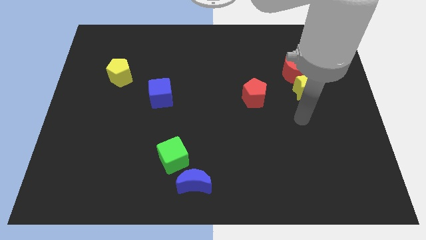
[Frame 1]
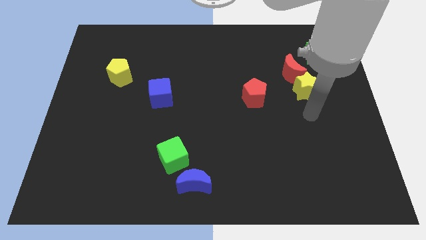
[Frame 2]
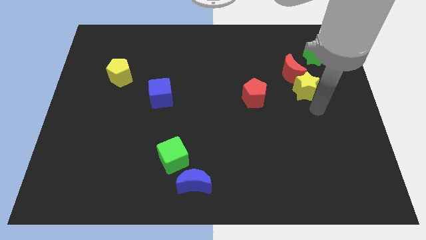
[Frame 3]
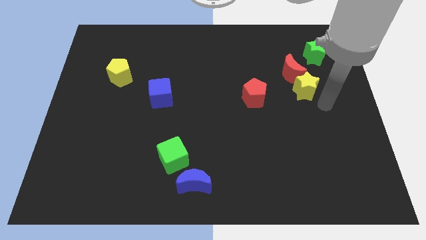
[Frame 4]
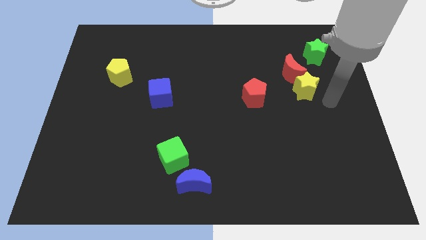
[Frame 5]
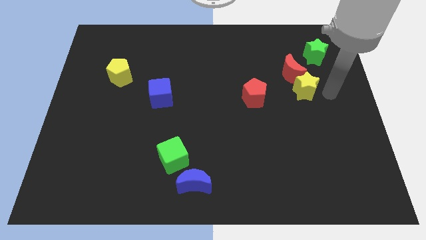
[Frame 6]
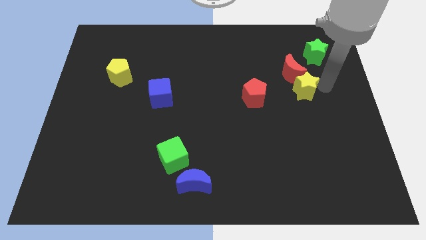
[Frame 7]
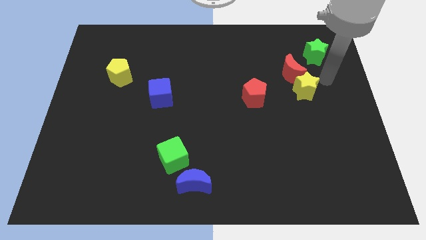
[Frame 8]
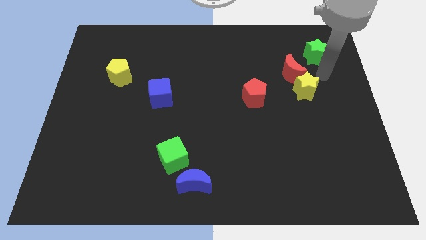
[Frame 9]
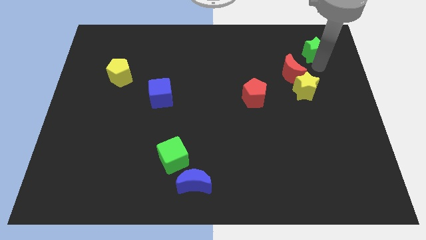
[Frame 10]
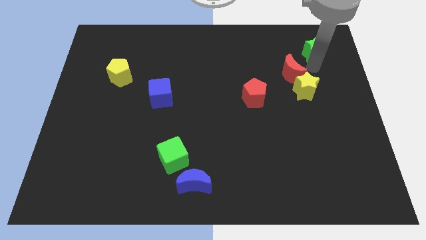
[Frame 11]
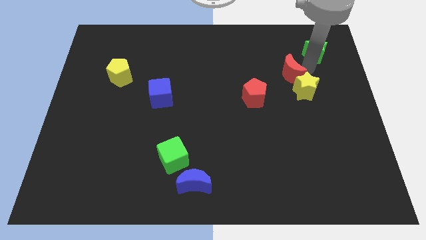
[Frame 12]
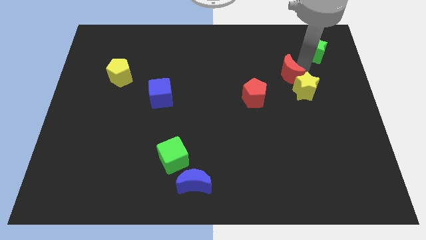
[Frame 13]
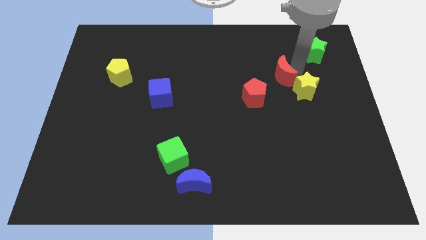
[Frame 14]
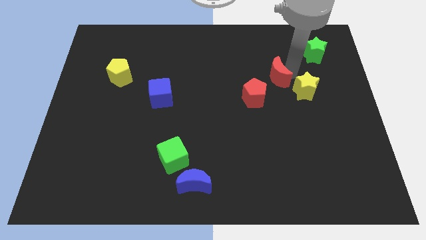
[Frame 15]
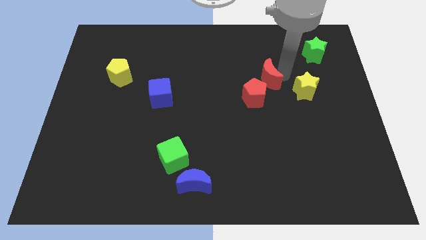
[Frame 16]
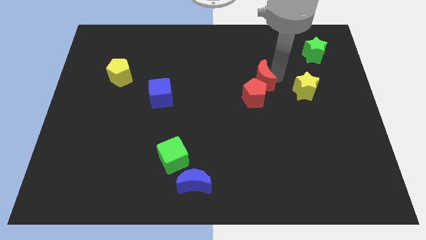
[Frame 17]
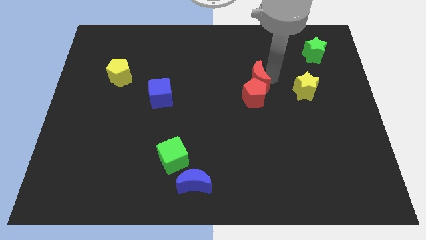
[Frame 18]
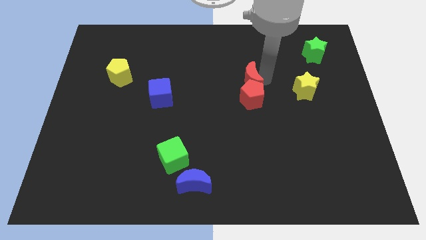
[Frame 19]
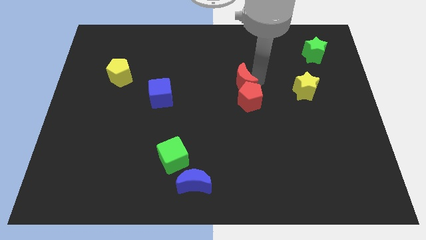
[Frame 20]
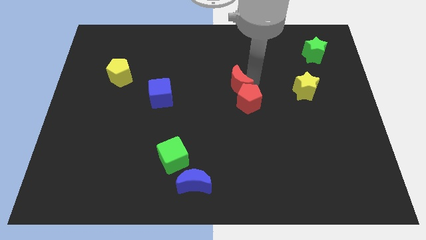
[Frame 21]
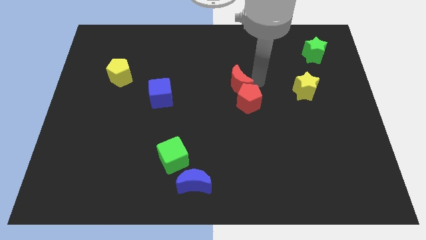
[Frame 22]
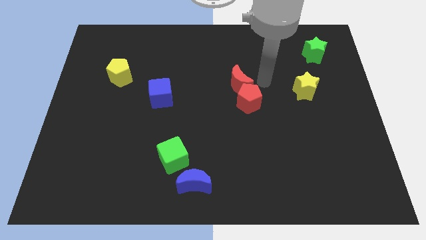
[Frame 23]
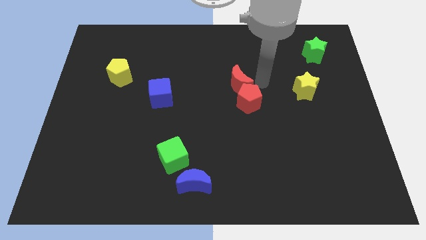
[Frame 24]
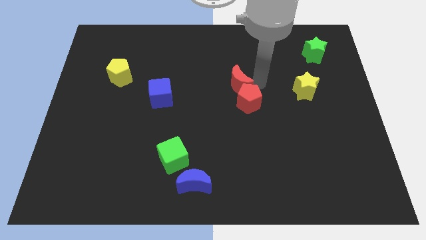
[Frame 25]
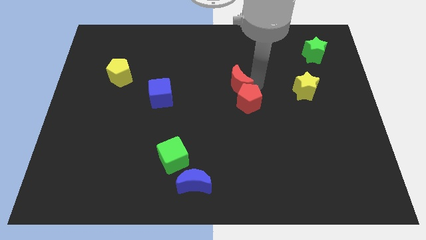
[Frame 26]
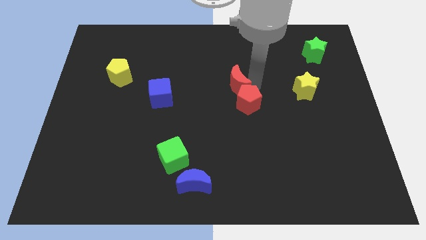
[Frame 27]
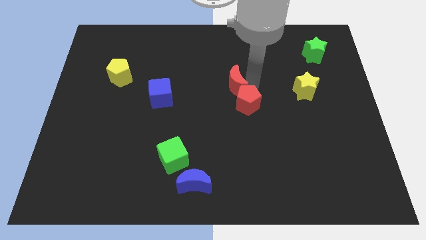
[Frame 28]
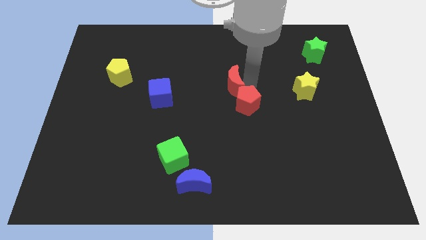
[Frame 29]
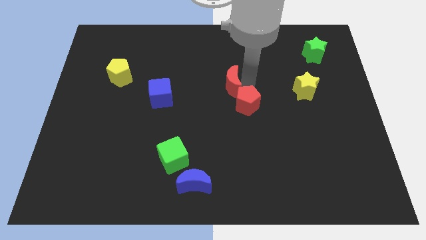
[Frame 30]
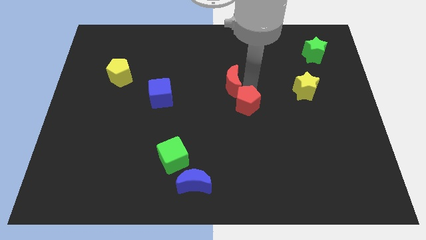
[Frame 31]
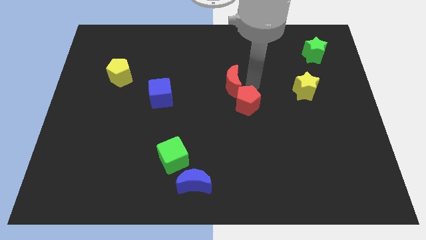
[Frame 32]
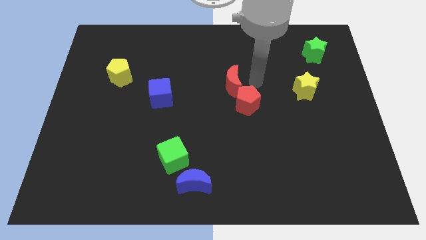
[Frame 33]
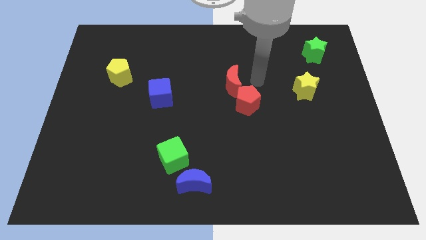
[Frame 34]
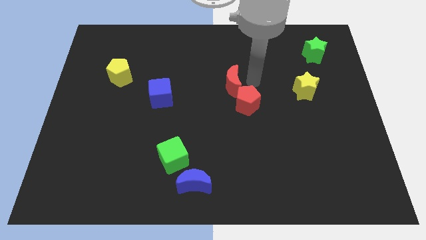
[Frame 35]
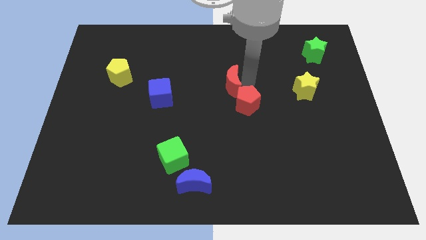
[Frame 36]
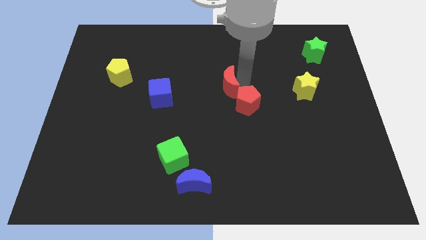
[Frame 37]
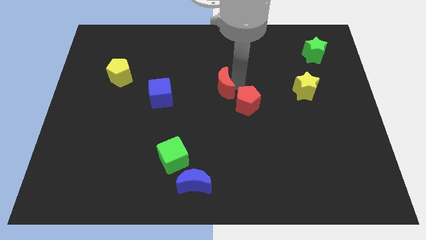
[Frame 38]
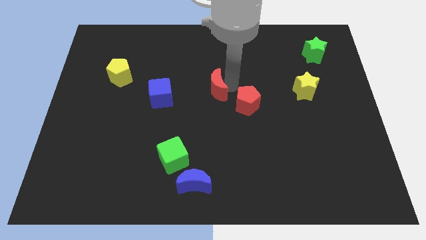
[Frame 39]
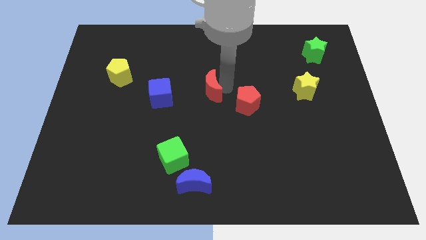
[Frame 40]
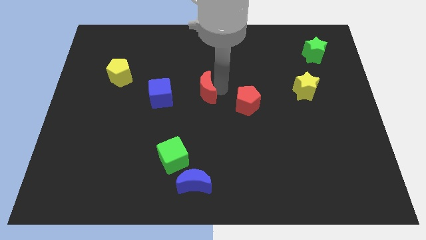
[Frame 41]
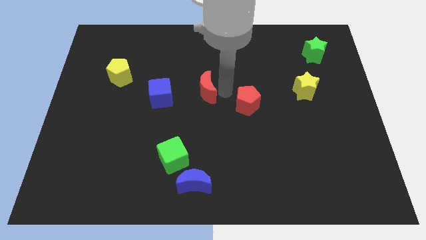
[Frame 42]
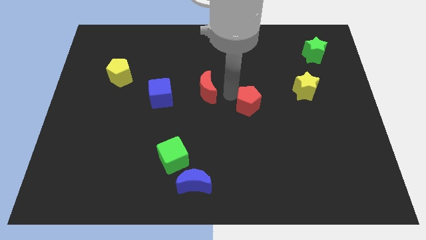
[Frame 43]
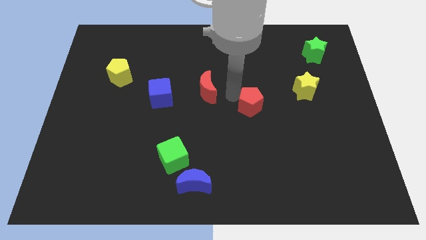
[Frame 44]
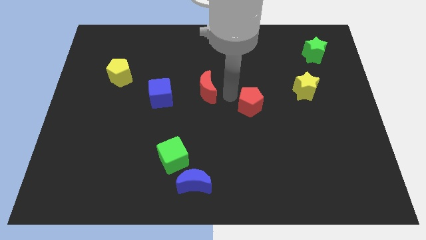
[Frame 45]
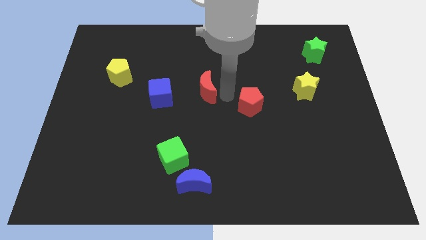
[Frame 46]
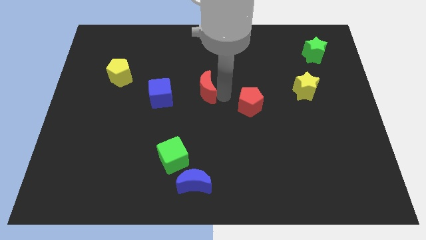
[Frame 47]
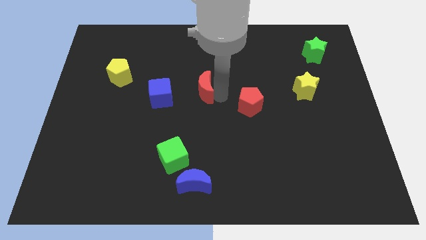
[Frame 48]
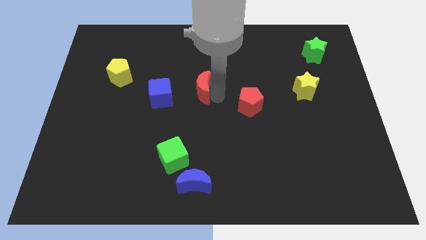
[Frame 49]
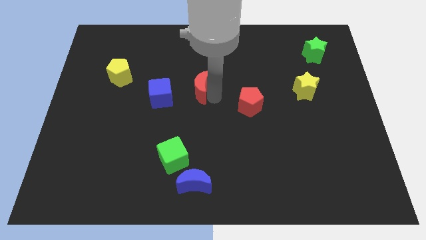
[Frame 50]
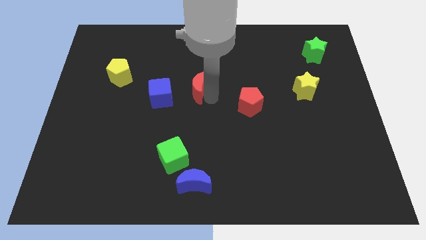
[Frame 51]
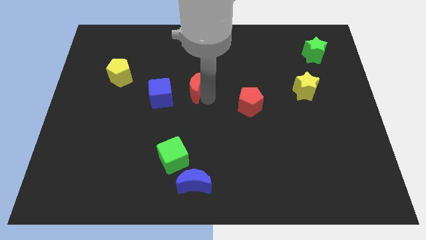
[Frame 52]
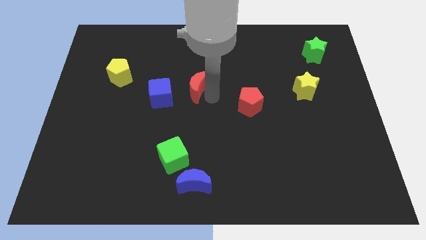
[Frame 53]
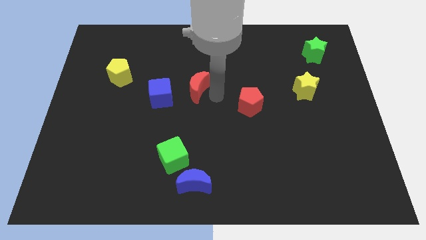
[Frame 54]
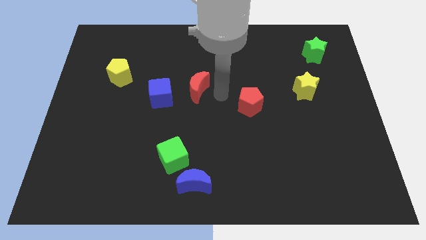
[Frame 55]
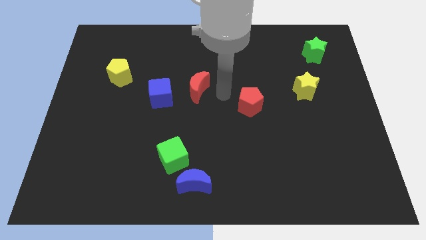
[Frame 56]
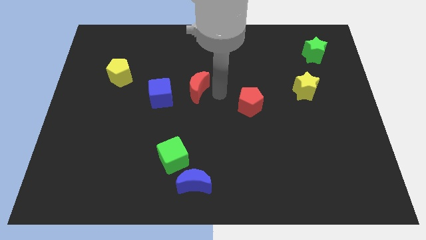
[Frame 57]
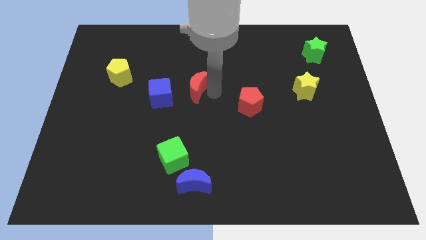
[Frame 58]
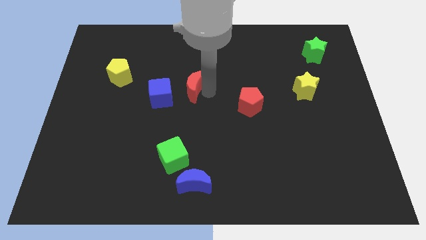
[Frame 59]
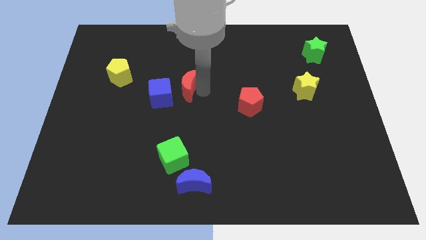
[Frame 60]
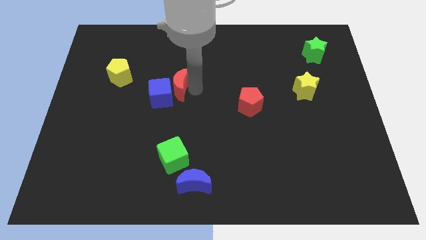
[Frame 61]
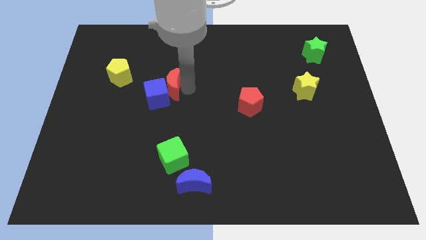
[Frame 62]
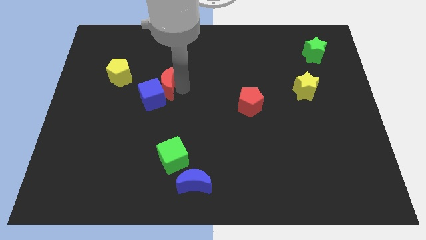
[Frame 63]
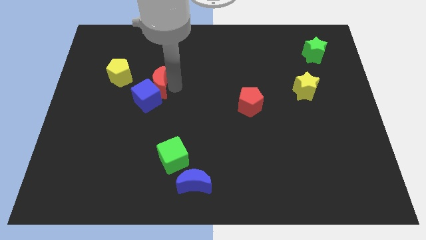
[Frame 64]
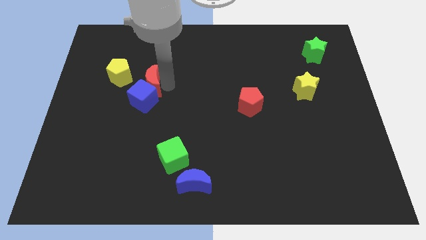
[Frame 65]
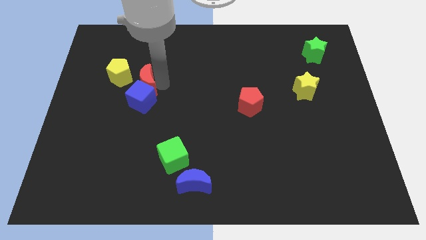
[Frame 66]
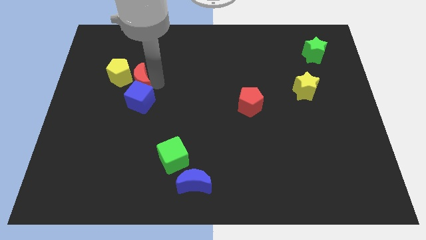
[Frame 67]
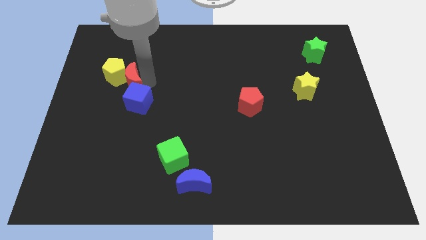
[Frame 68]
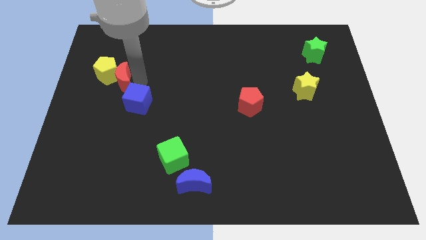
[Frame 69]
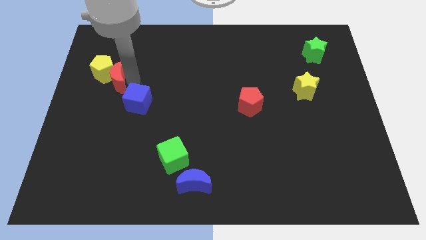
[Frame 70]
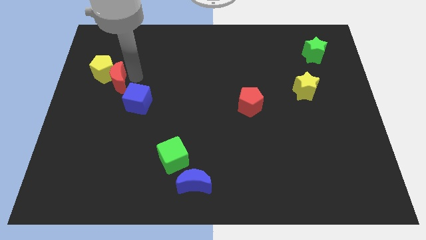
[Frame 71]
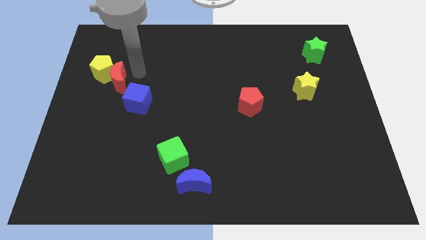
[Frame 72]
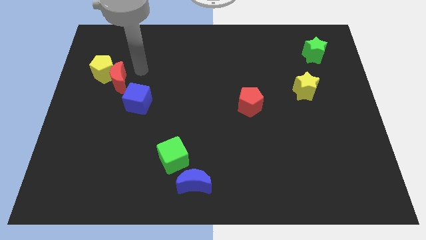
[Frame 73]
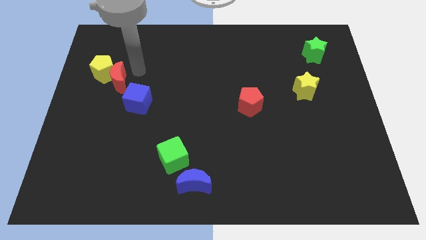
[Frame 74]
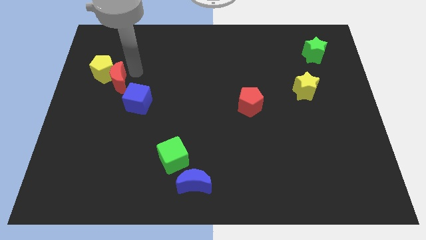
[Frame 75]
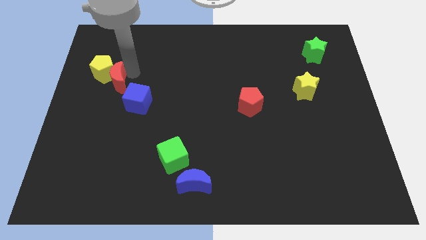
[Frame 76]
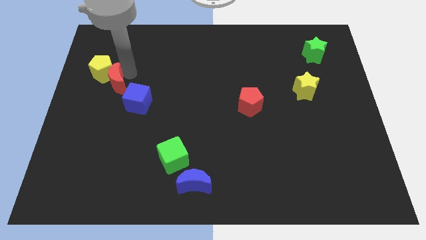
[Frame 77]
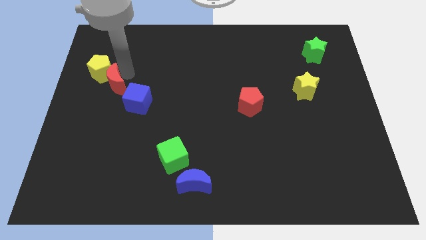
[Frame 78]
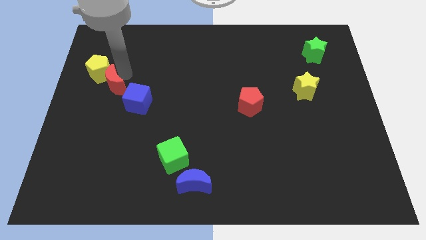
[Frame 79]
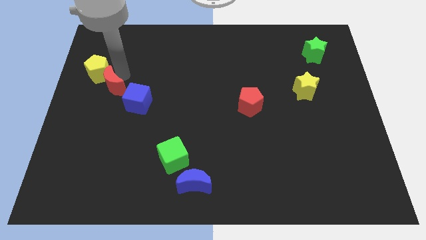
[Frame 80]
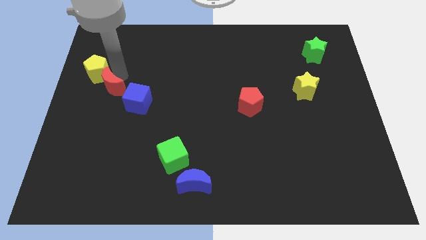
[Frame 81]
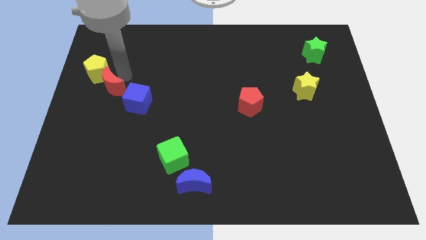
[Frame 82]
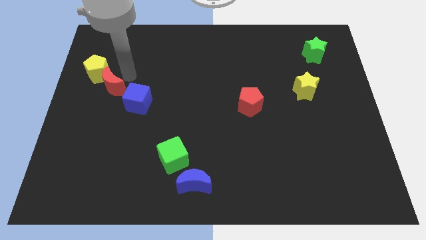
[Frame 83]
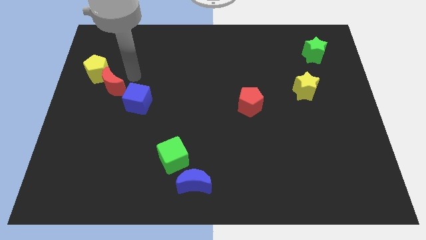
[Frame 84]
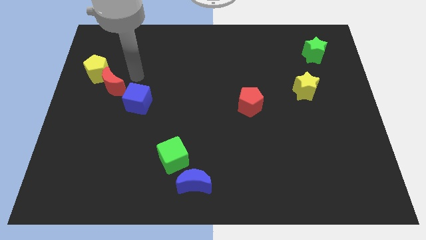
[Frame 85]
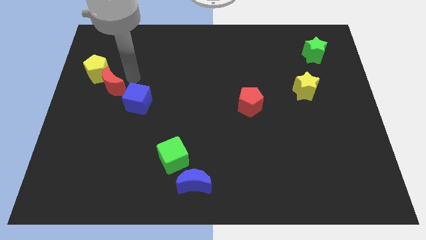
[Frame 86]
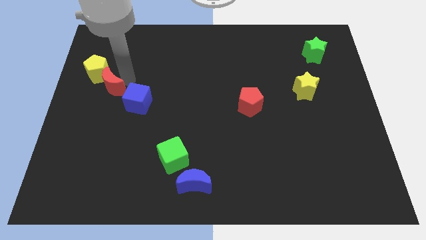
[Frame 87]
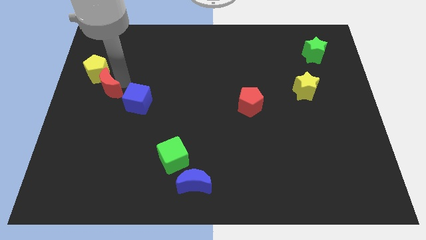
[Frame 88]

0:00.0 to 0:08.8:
put the red moon to the center left
